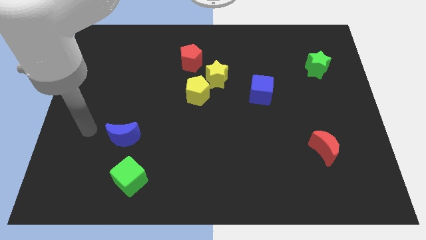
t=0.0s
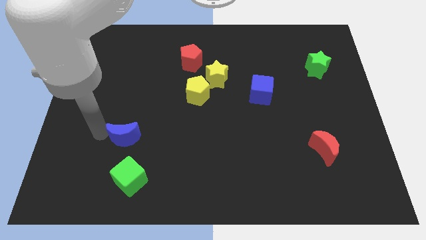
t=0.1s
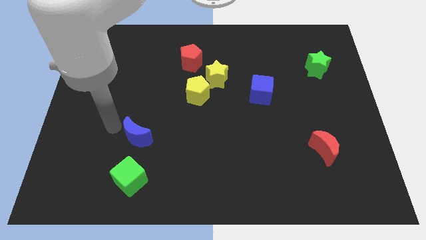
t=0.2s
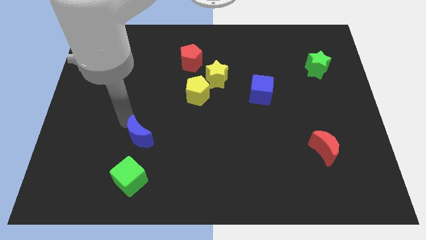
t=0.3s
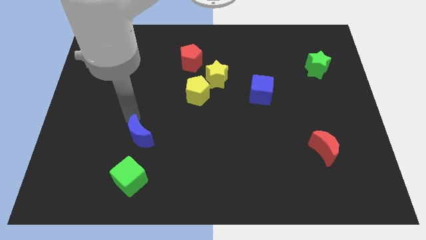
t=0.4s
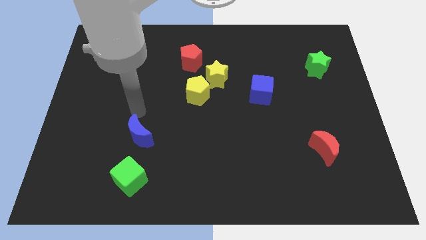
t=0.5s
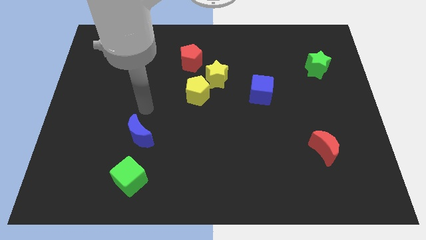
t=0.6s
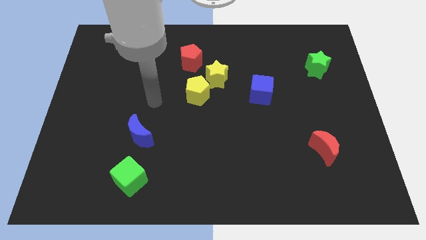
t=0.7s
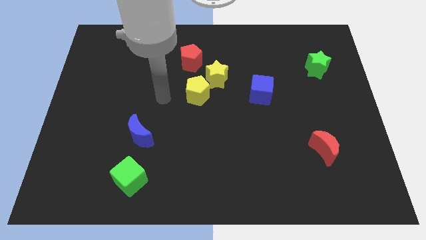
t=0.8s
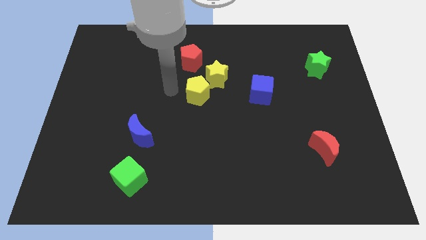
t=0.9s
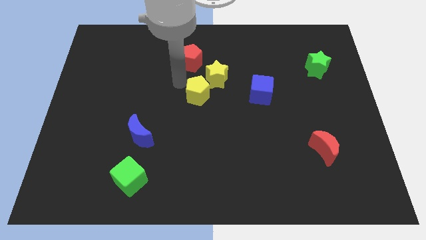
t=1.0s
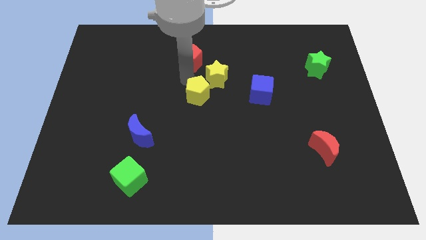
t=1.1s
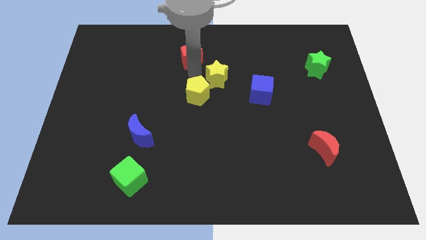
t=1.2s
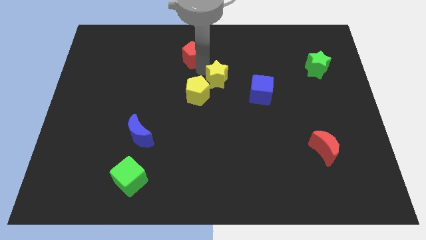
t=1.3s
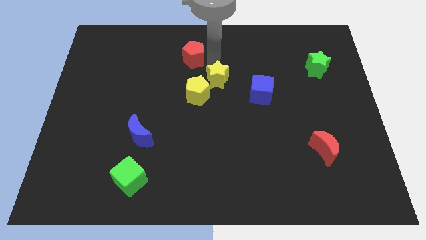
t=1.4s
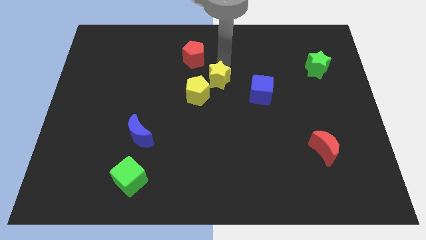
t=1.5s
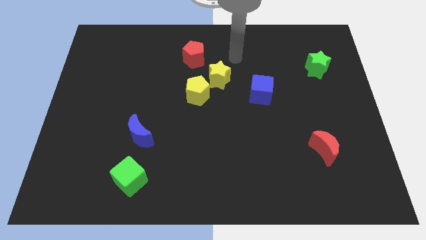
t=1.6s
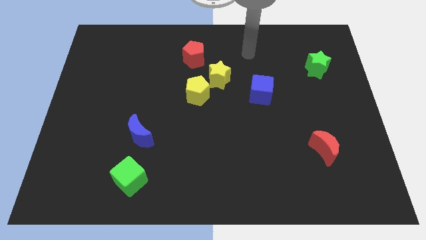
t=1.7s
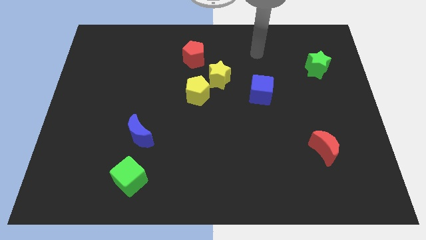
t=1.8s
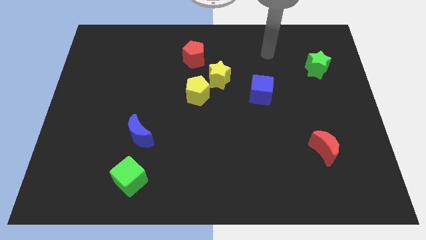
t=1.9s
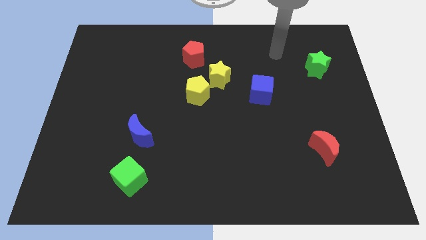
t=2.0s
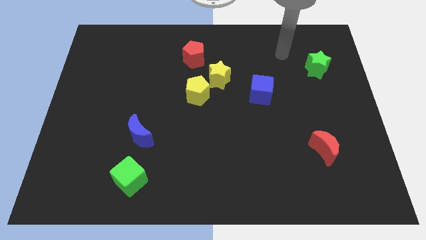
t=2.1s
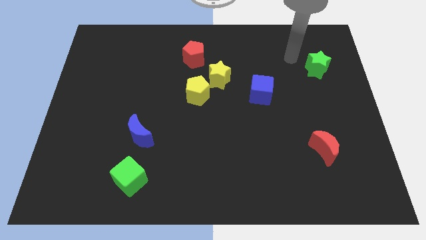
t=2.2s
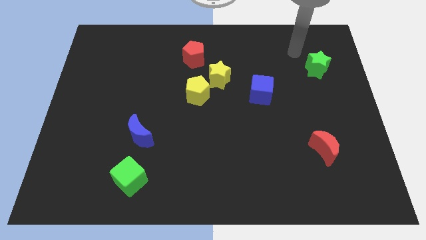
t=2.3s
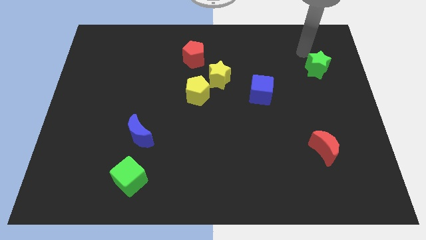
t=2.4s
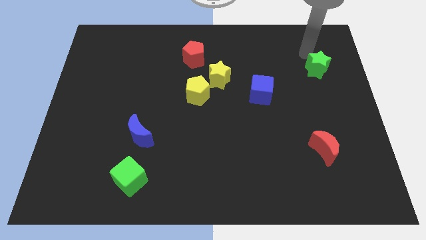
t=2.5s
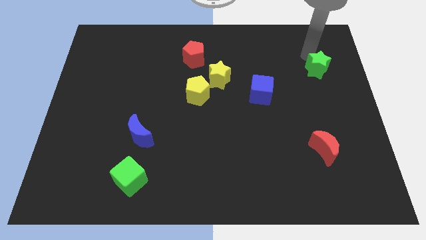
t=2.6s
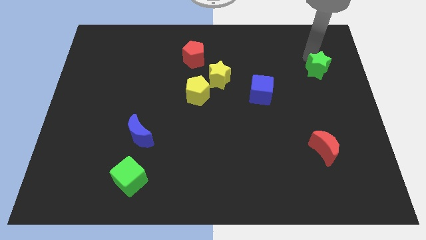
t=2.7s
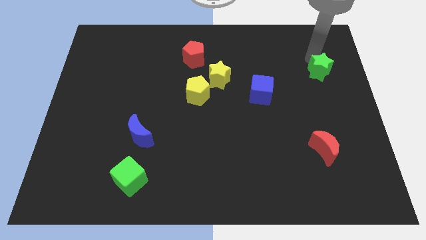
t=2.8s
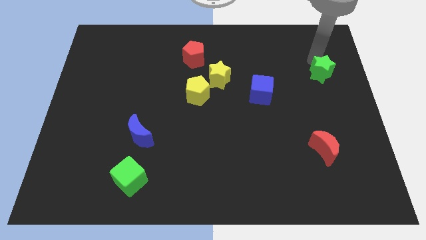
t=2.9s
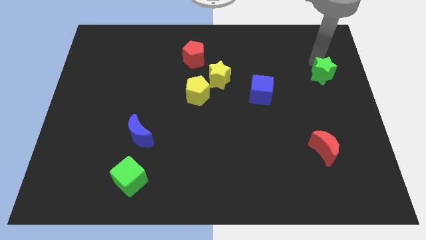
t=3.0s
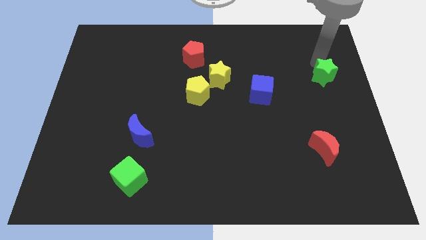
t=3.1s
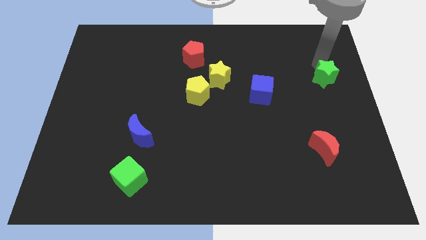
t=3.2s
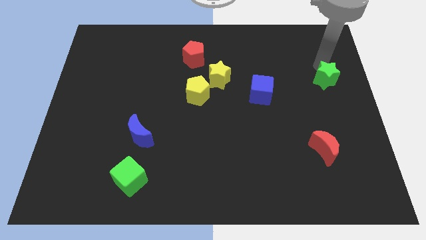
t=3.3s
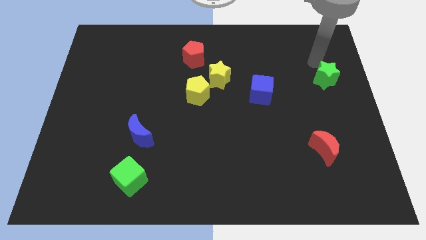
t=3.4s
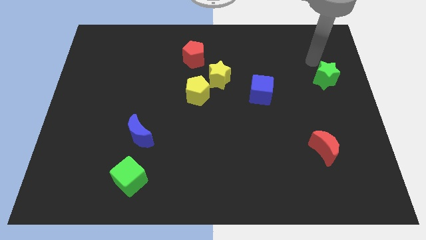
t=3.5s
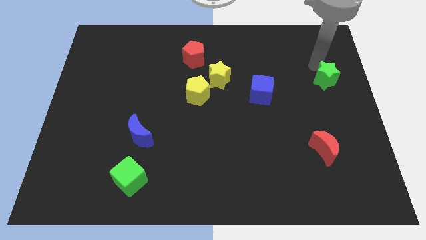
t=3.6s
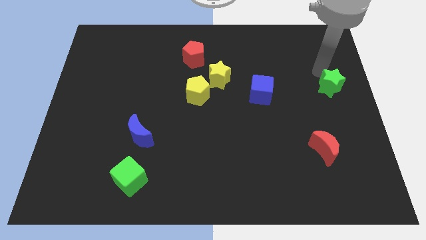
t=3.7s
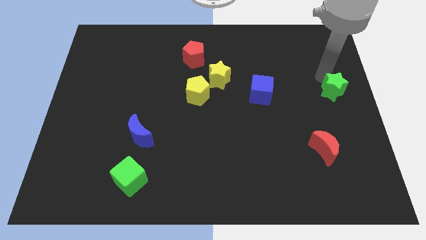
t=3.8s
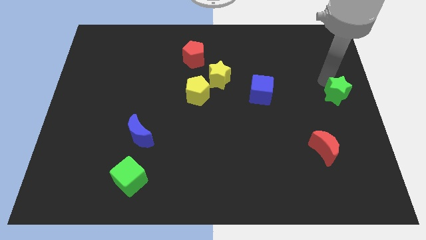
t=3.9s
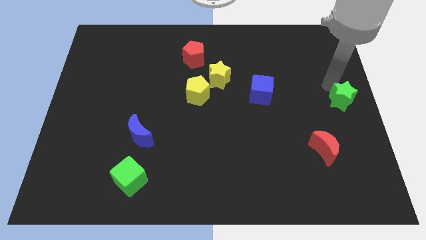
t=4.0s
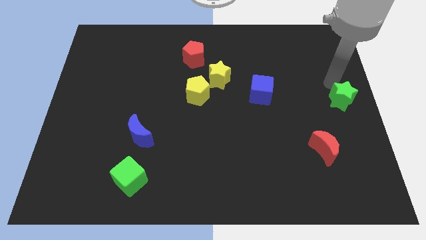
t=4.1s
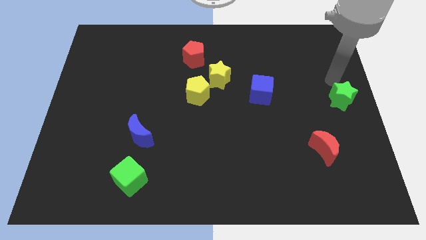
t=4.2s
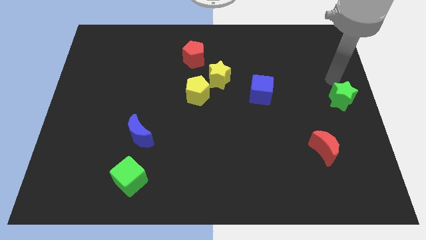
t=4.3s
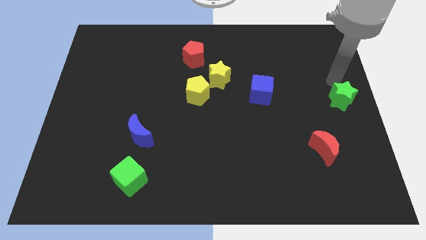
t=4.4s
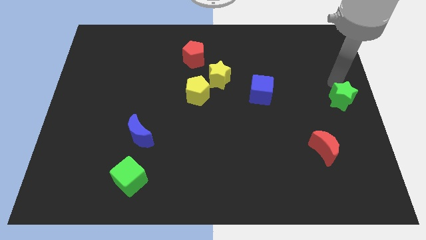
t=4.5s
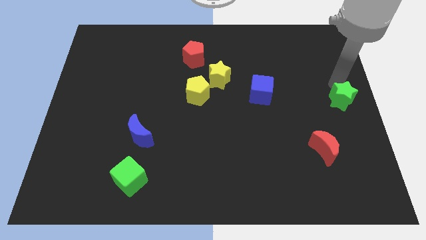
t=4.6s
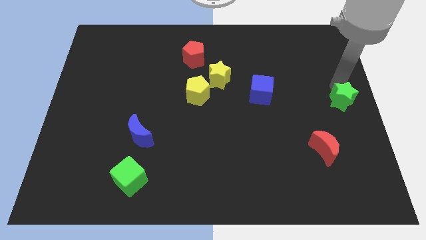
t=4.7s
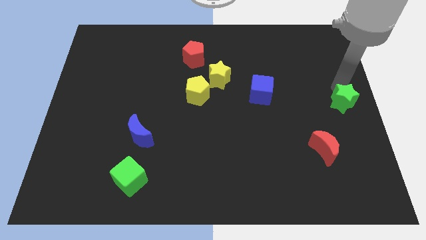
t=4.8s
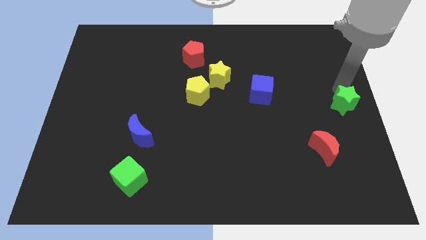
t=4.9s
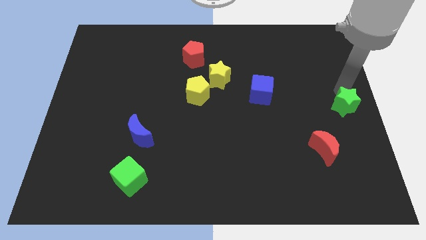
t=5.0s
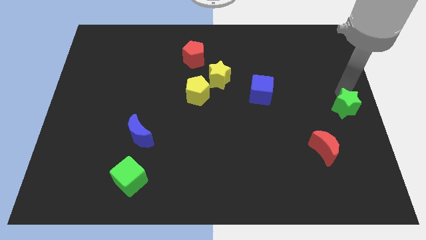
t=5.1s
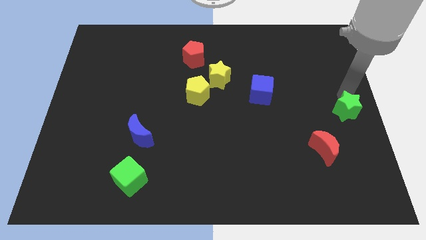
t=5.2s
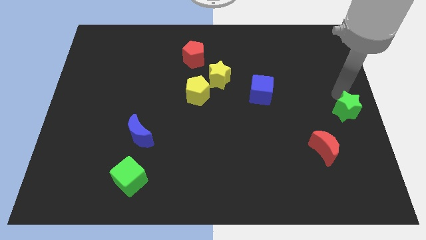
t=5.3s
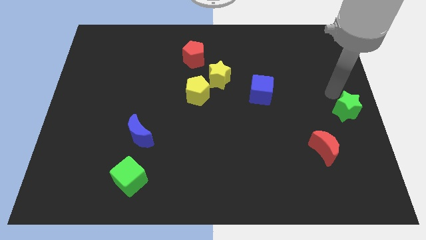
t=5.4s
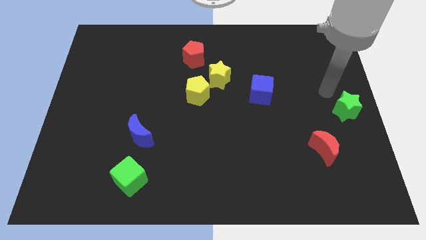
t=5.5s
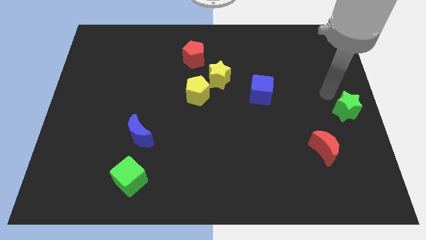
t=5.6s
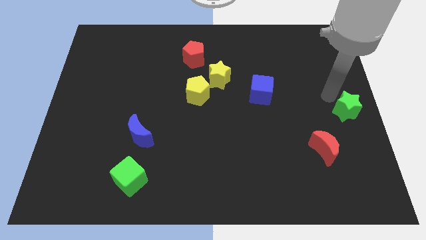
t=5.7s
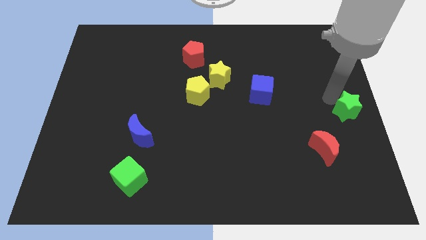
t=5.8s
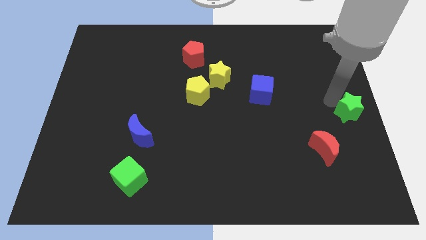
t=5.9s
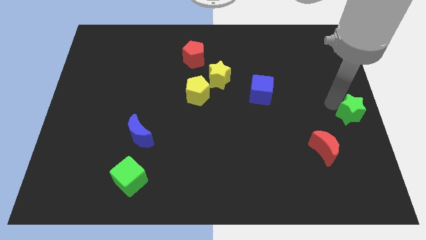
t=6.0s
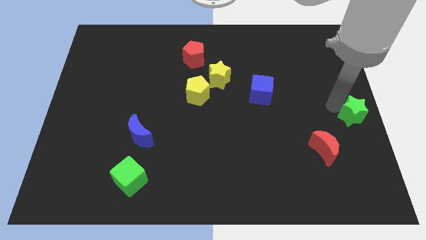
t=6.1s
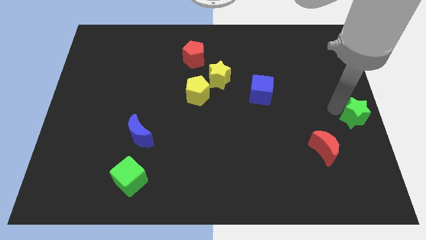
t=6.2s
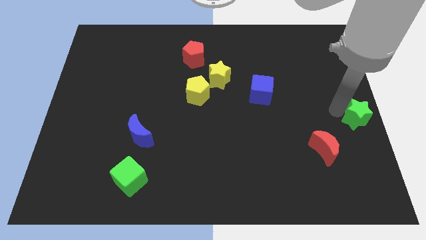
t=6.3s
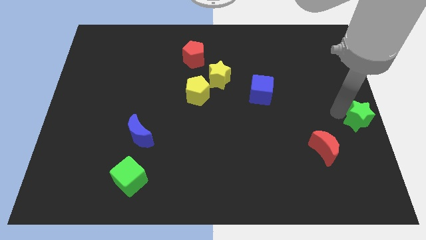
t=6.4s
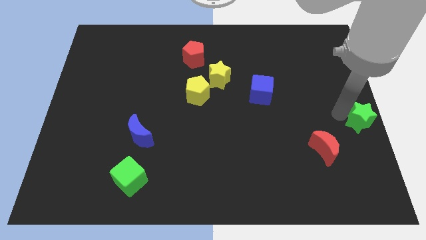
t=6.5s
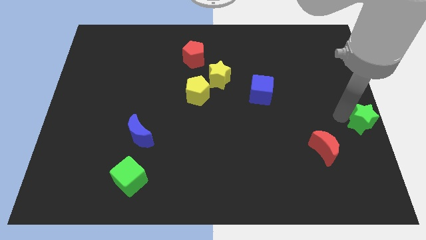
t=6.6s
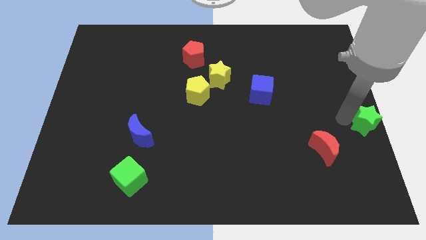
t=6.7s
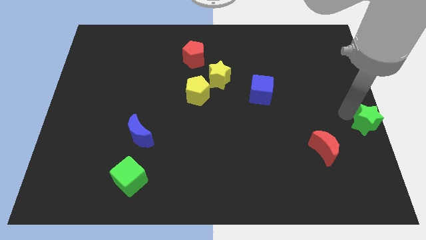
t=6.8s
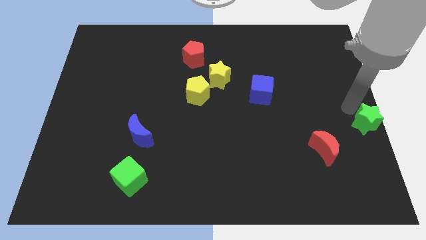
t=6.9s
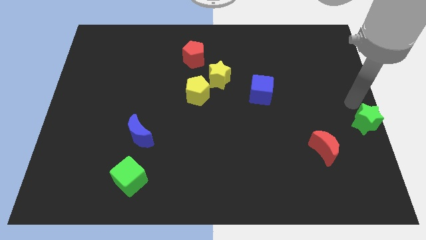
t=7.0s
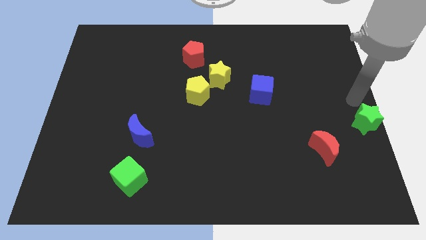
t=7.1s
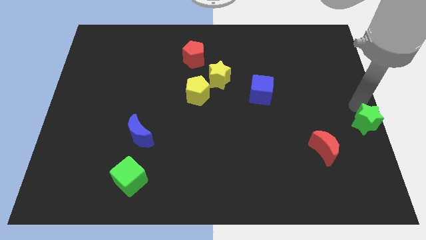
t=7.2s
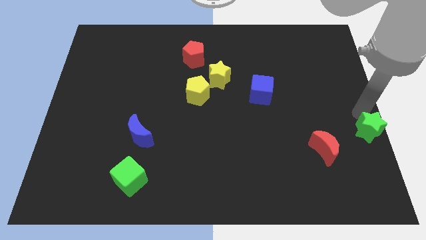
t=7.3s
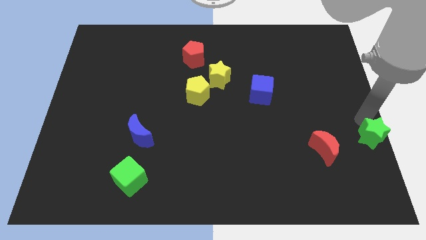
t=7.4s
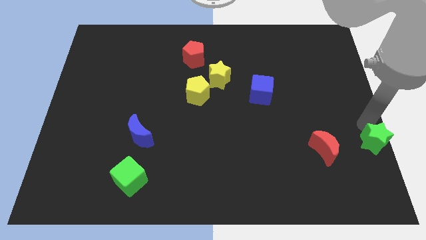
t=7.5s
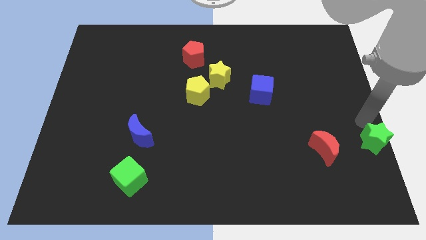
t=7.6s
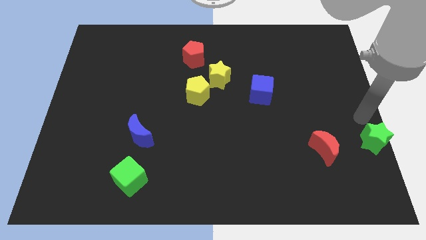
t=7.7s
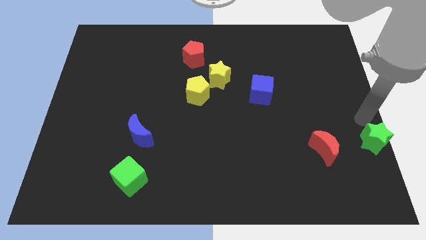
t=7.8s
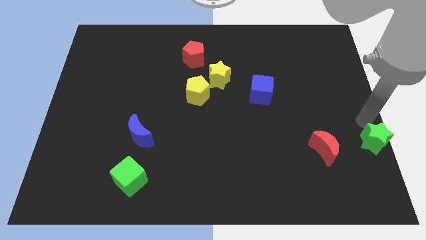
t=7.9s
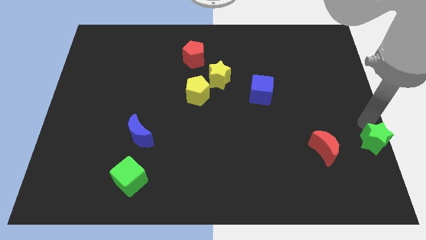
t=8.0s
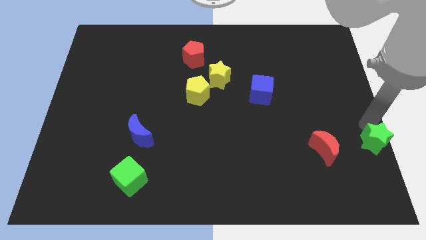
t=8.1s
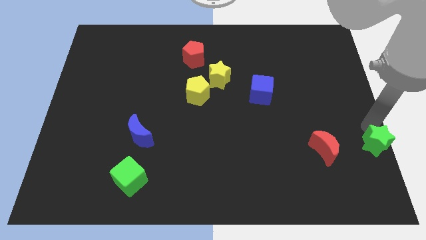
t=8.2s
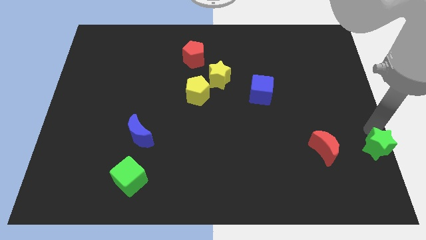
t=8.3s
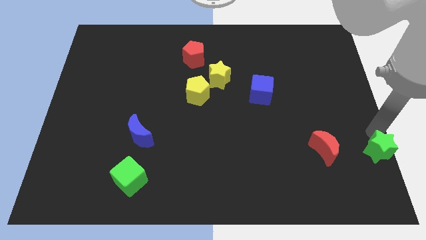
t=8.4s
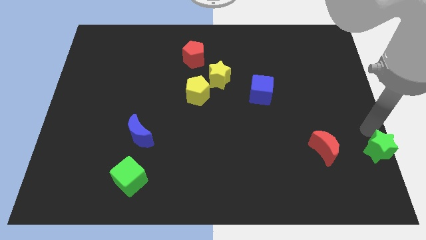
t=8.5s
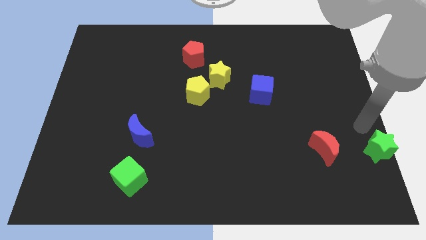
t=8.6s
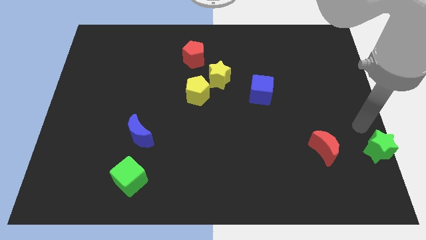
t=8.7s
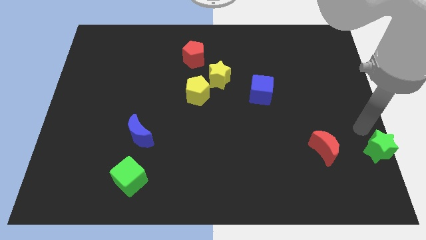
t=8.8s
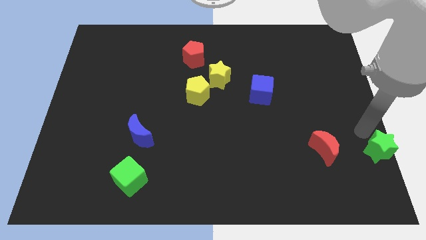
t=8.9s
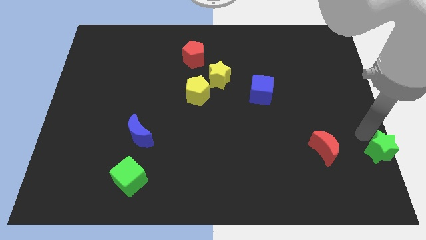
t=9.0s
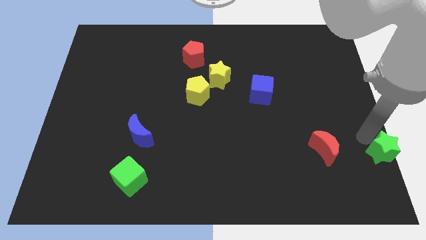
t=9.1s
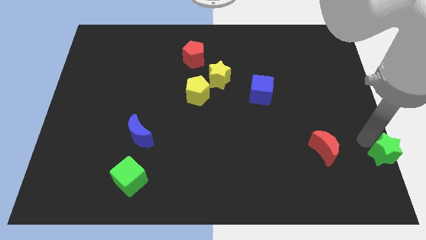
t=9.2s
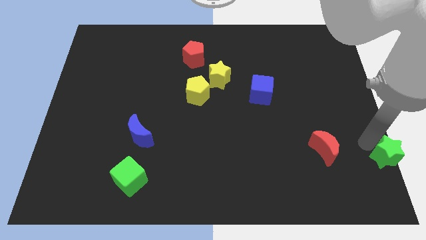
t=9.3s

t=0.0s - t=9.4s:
slide the green star to the bottom right corner
